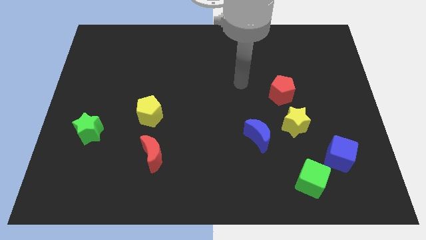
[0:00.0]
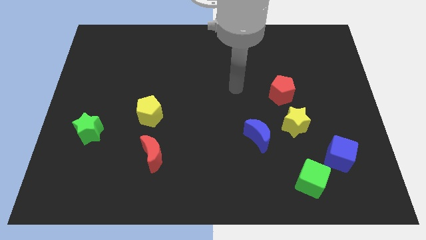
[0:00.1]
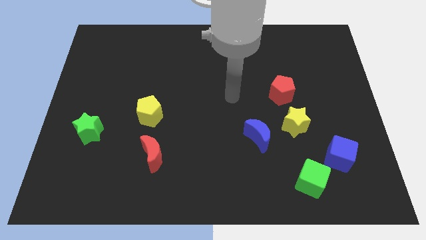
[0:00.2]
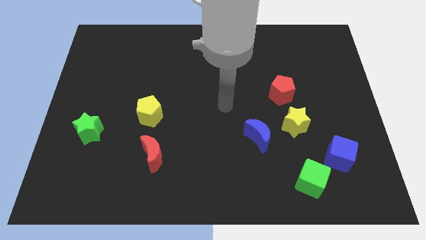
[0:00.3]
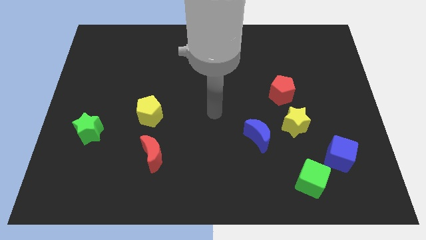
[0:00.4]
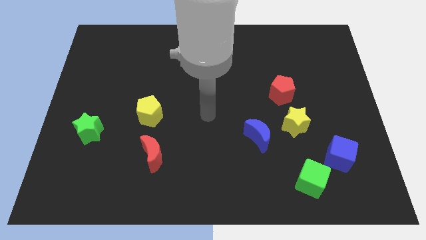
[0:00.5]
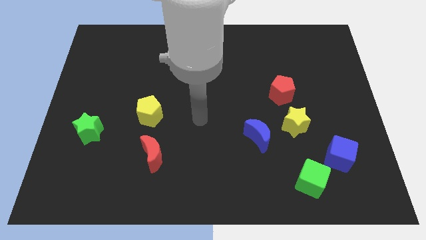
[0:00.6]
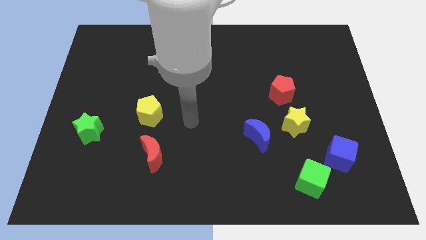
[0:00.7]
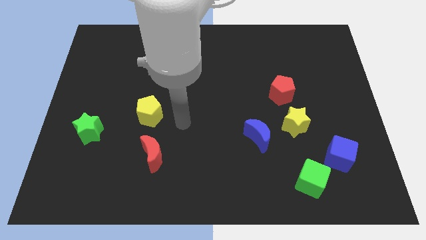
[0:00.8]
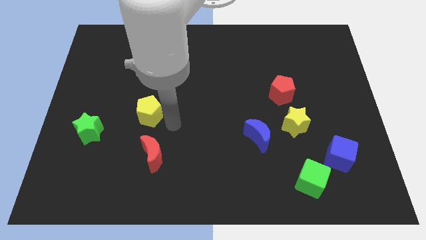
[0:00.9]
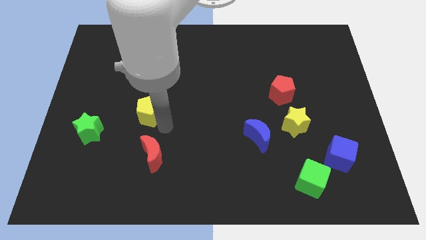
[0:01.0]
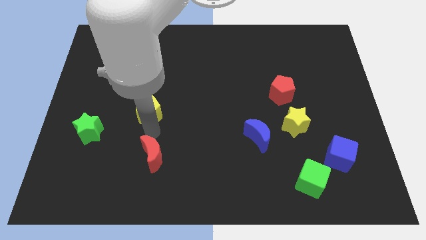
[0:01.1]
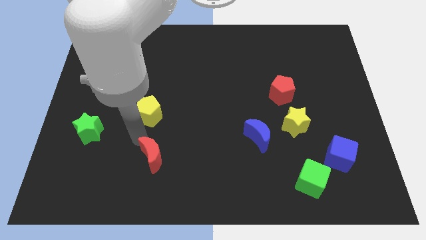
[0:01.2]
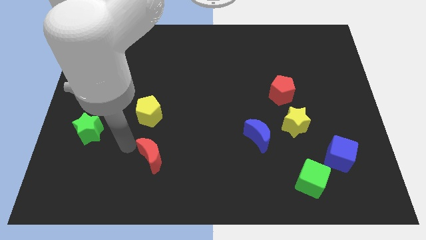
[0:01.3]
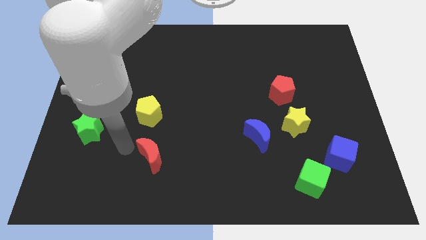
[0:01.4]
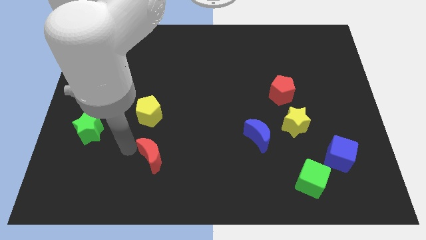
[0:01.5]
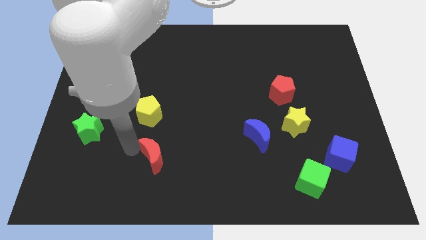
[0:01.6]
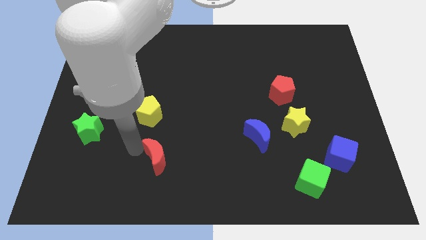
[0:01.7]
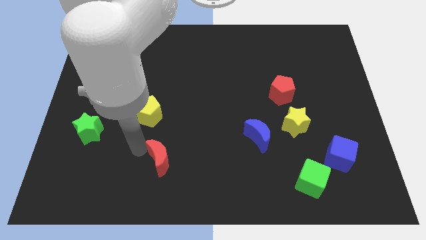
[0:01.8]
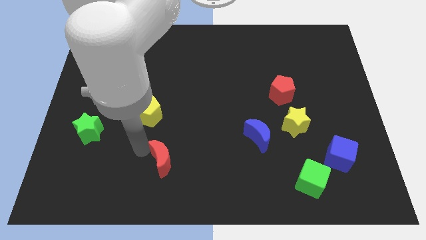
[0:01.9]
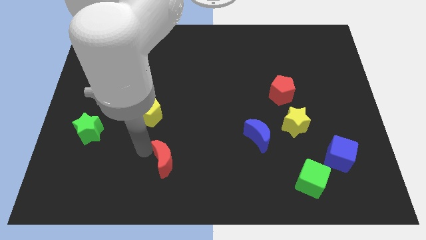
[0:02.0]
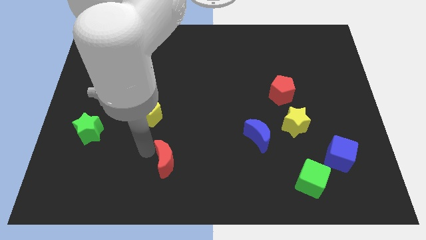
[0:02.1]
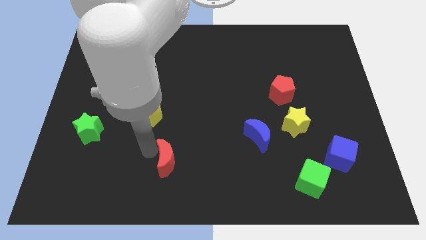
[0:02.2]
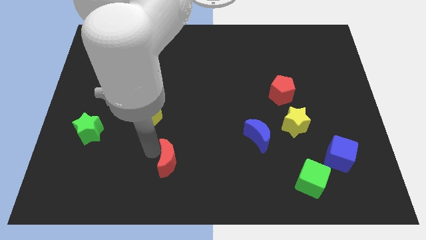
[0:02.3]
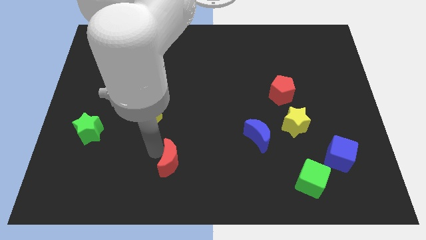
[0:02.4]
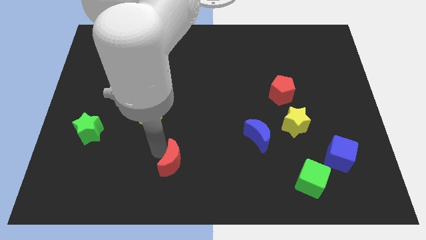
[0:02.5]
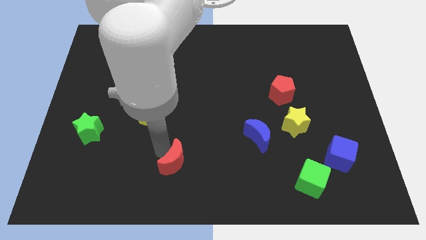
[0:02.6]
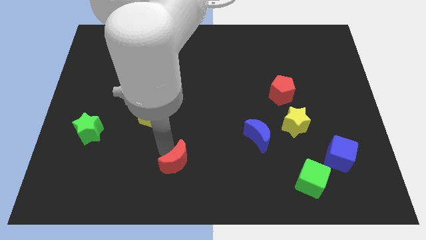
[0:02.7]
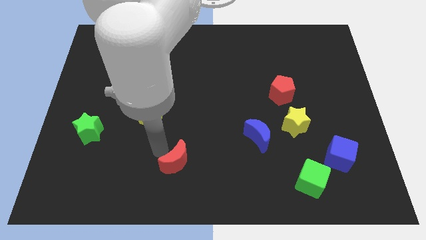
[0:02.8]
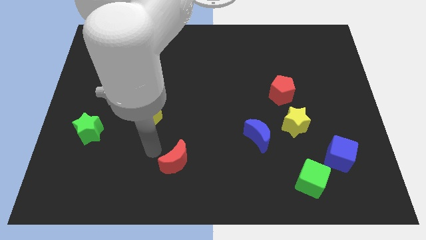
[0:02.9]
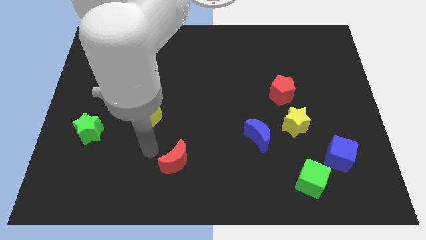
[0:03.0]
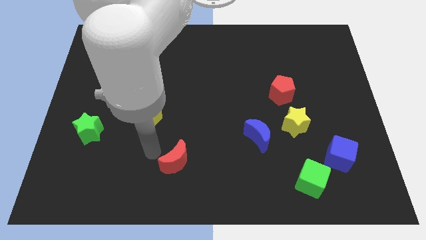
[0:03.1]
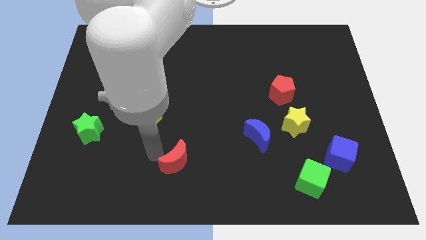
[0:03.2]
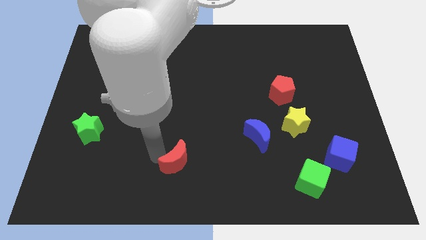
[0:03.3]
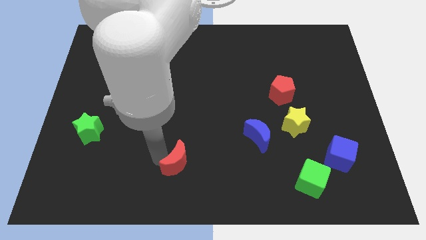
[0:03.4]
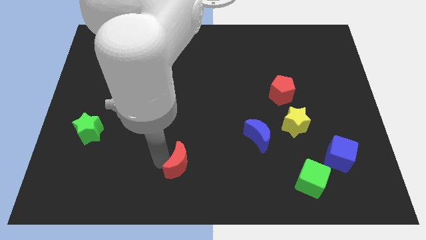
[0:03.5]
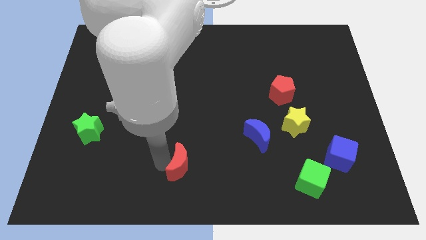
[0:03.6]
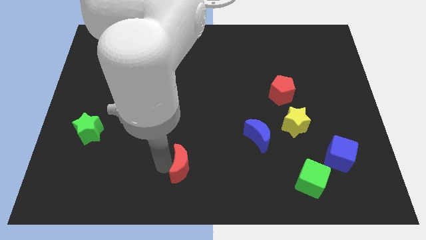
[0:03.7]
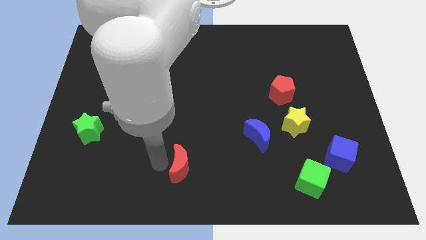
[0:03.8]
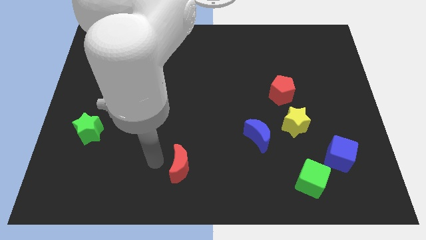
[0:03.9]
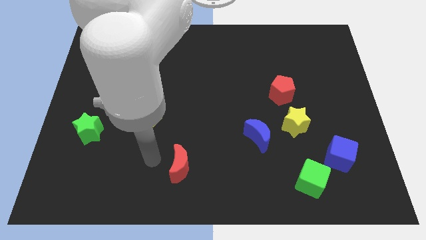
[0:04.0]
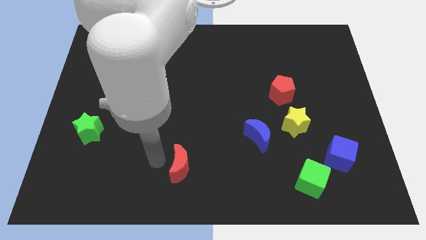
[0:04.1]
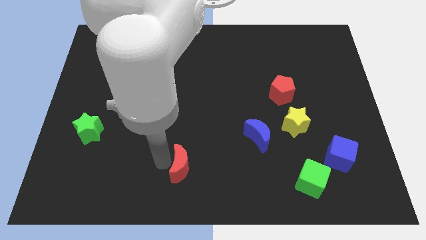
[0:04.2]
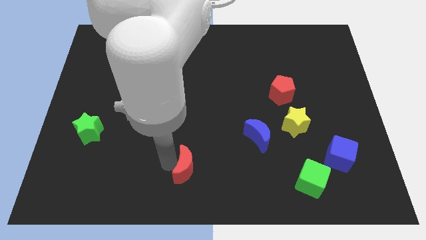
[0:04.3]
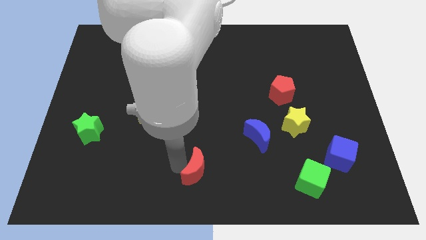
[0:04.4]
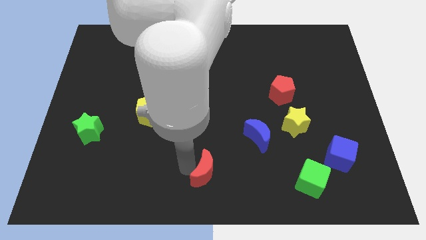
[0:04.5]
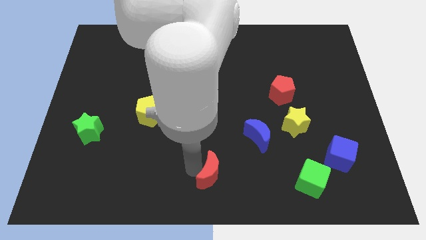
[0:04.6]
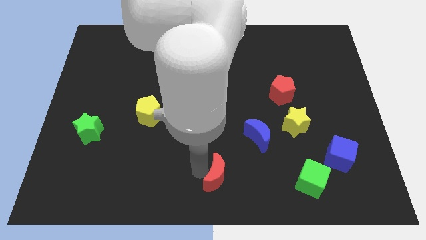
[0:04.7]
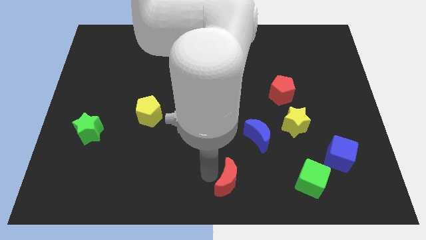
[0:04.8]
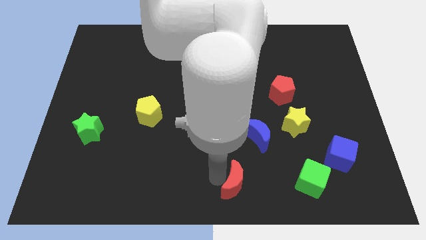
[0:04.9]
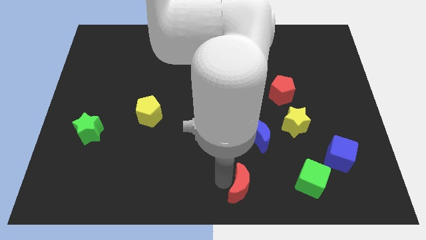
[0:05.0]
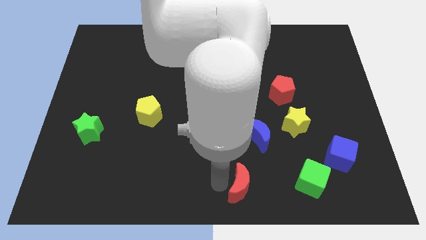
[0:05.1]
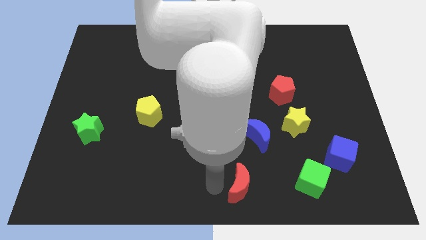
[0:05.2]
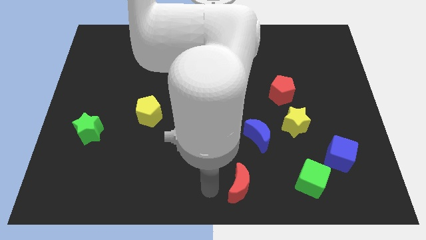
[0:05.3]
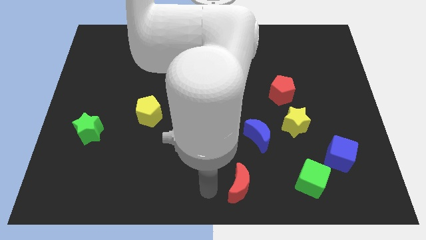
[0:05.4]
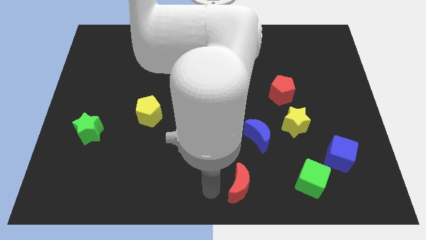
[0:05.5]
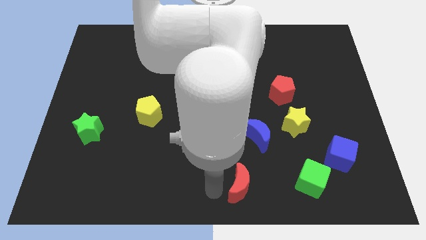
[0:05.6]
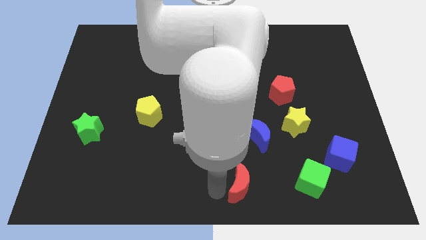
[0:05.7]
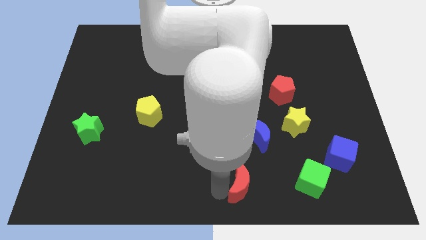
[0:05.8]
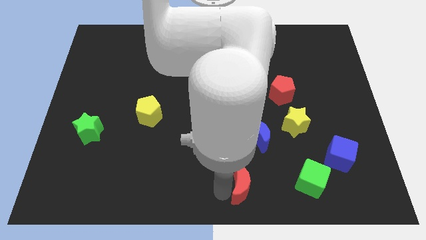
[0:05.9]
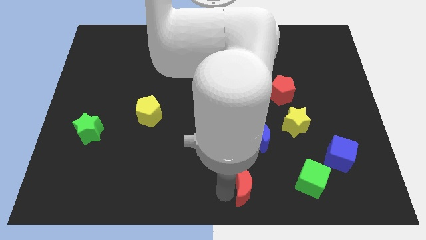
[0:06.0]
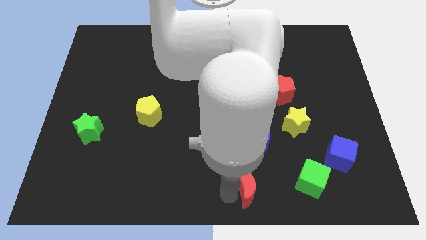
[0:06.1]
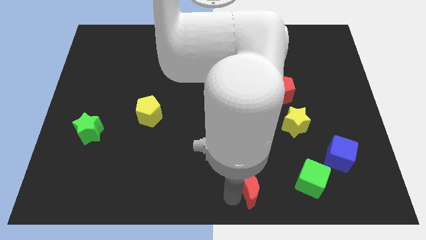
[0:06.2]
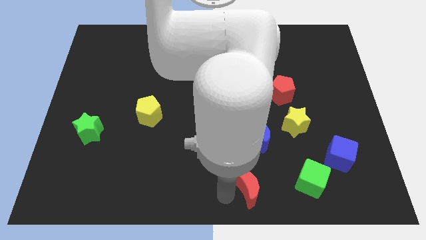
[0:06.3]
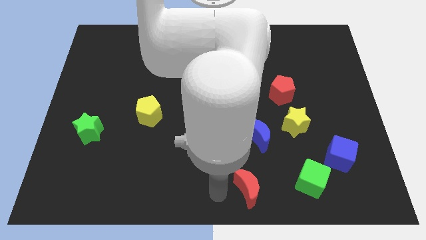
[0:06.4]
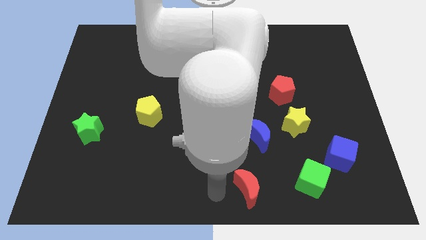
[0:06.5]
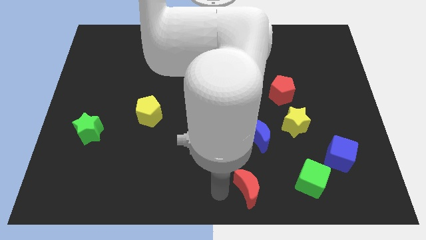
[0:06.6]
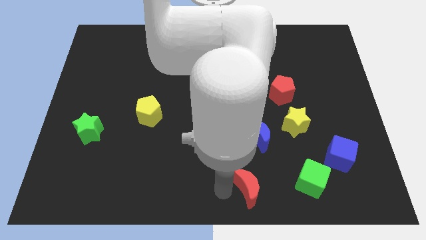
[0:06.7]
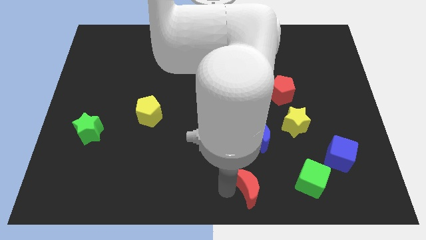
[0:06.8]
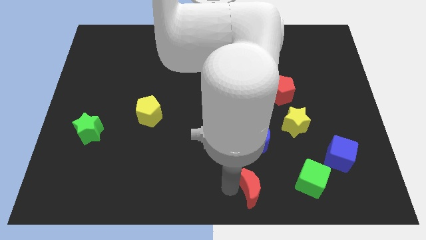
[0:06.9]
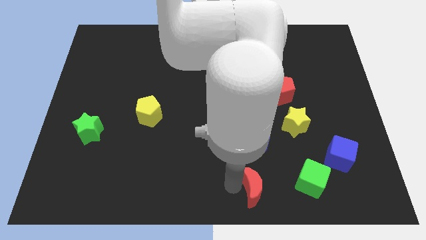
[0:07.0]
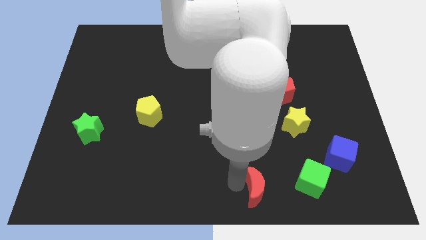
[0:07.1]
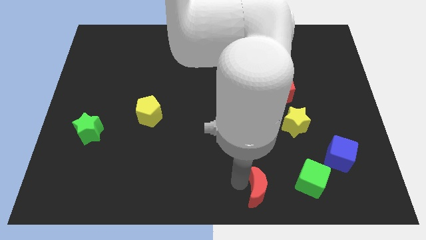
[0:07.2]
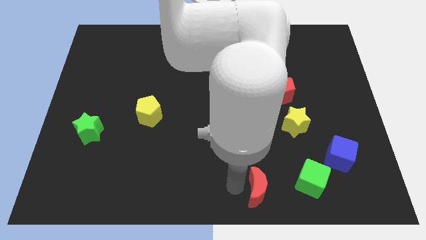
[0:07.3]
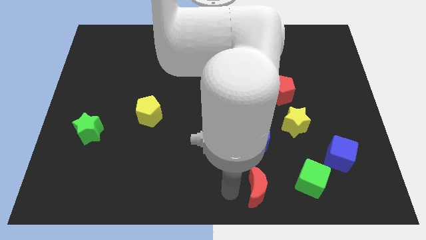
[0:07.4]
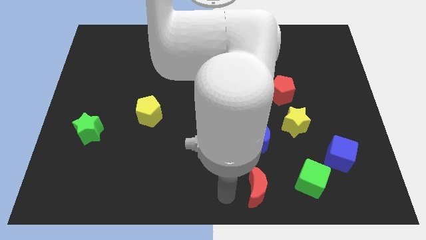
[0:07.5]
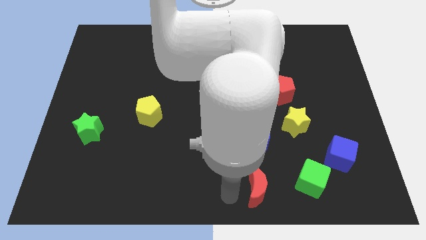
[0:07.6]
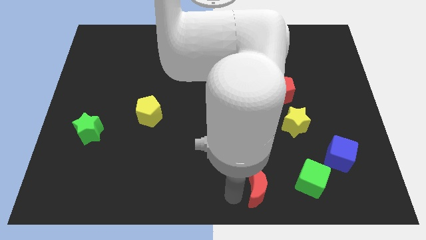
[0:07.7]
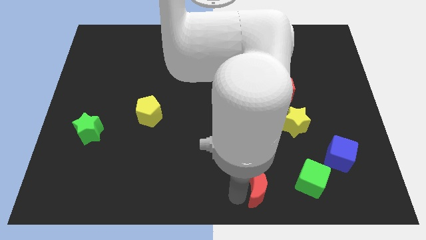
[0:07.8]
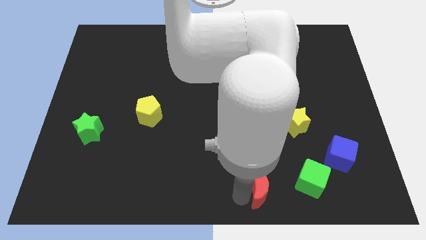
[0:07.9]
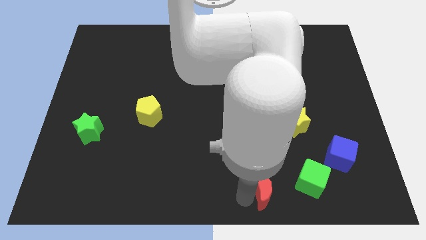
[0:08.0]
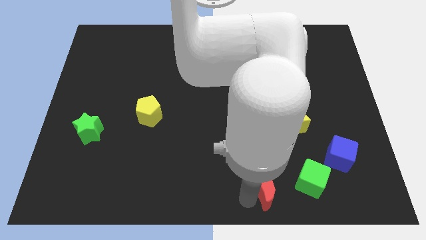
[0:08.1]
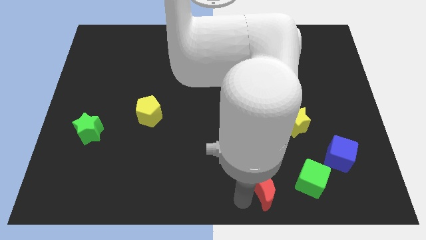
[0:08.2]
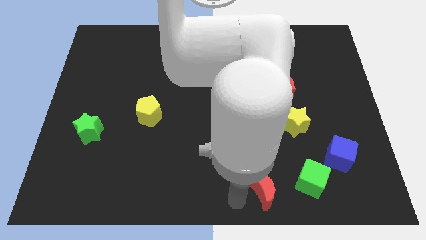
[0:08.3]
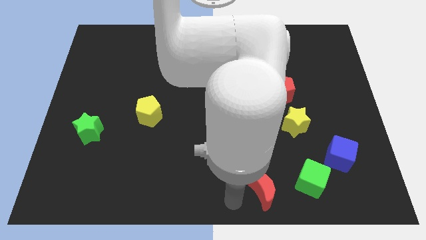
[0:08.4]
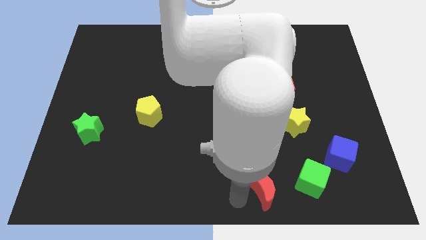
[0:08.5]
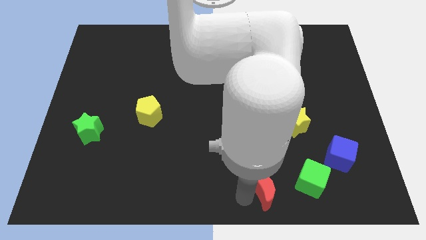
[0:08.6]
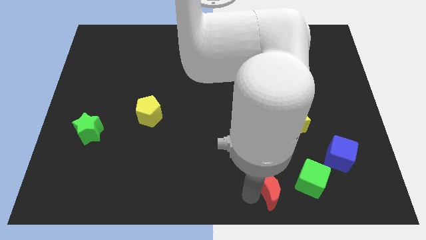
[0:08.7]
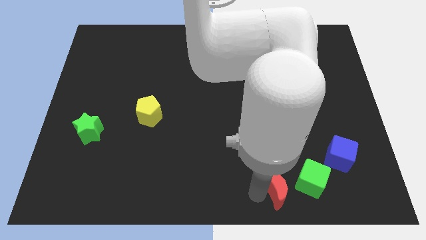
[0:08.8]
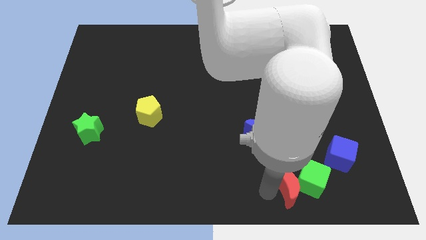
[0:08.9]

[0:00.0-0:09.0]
slide the red moon towards the green cube
